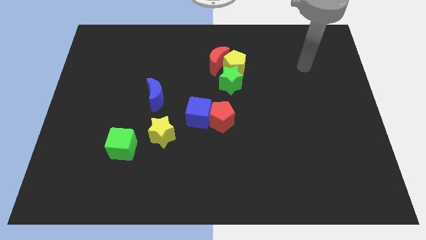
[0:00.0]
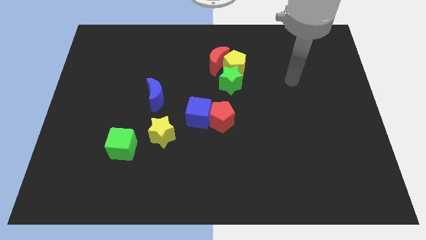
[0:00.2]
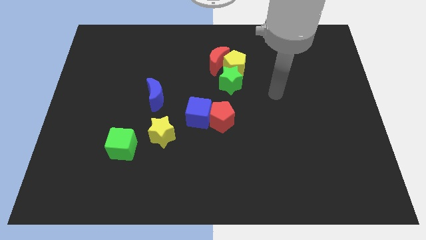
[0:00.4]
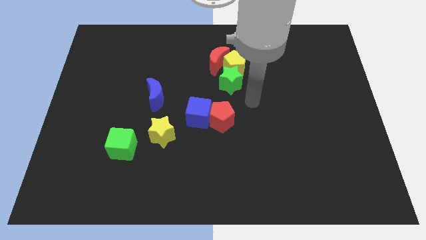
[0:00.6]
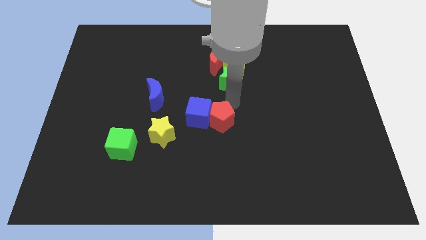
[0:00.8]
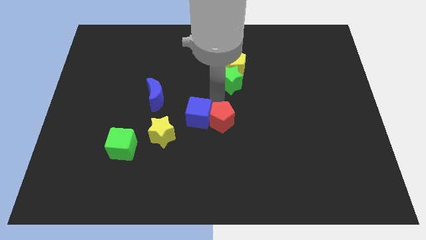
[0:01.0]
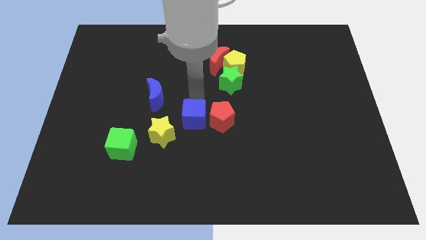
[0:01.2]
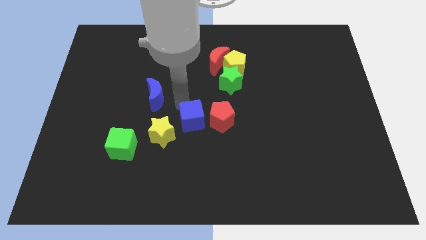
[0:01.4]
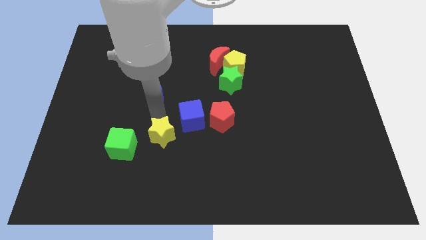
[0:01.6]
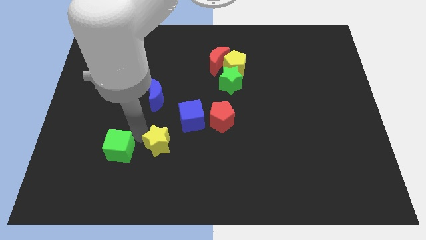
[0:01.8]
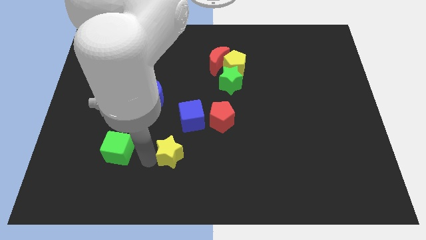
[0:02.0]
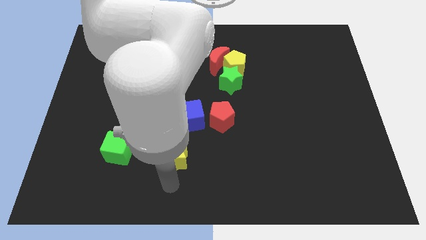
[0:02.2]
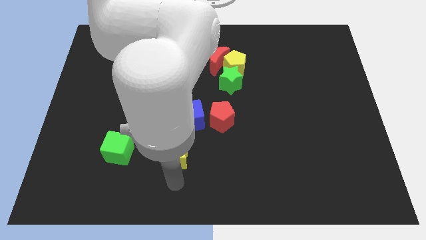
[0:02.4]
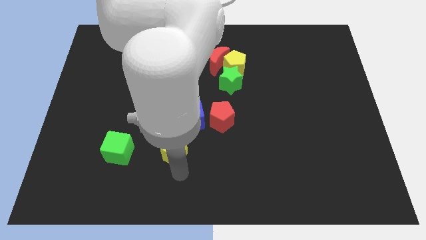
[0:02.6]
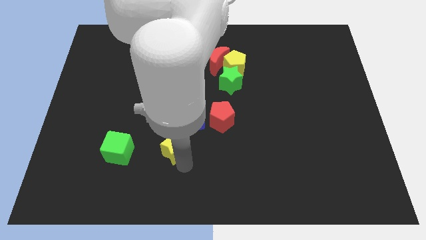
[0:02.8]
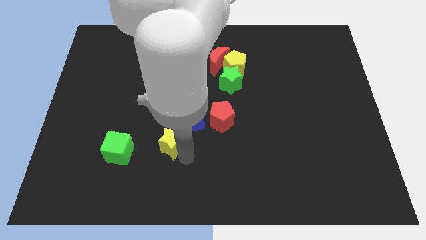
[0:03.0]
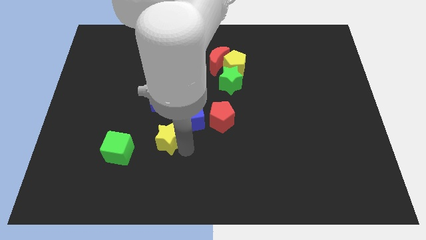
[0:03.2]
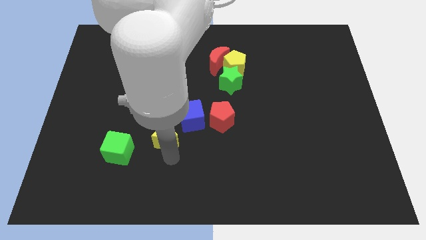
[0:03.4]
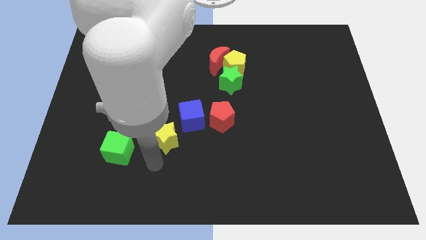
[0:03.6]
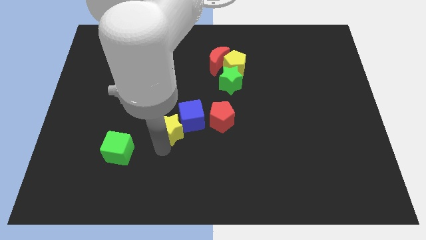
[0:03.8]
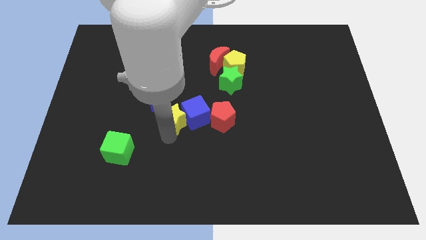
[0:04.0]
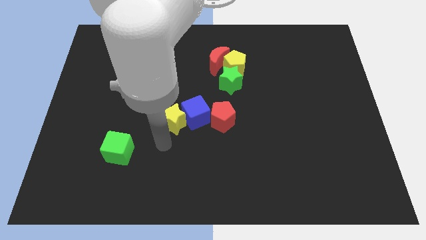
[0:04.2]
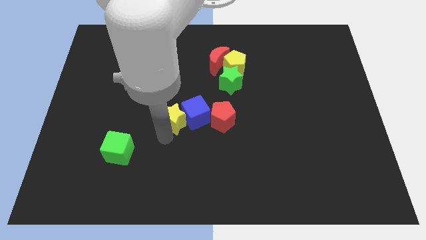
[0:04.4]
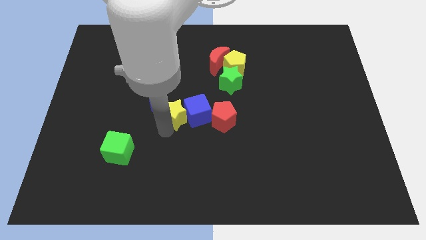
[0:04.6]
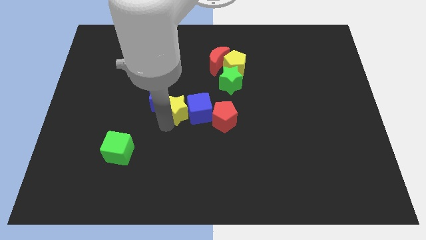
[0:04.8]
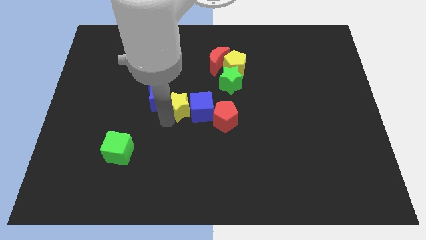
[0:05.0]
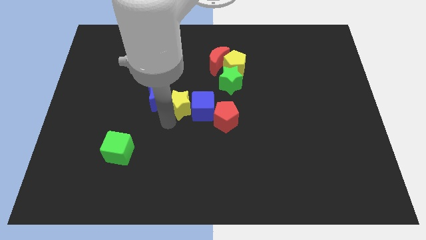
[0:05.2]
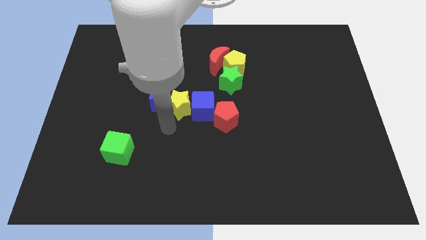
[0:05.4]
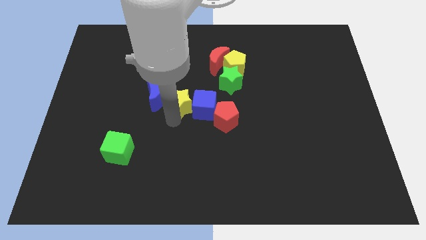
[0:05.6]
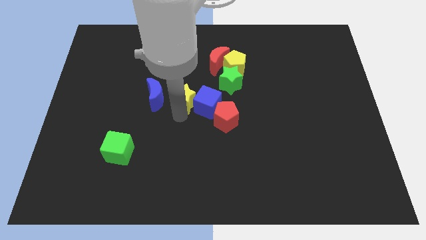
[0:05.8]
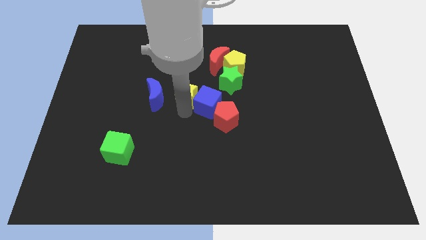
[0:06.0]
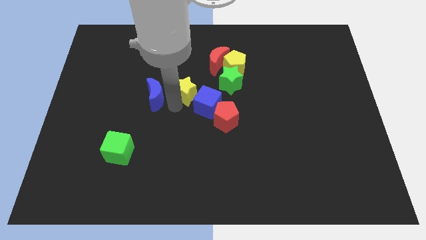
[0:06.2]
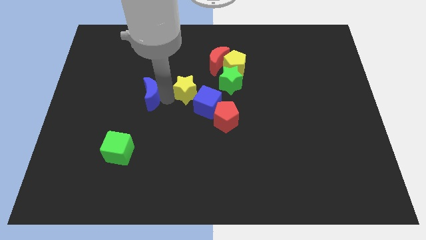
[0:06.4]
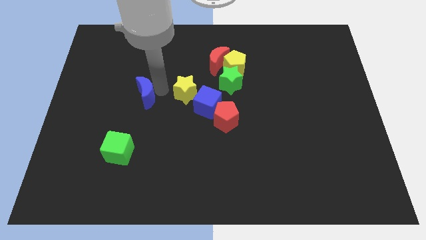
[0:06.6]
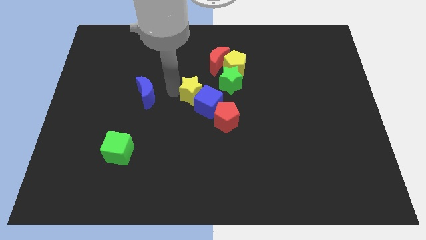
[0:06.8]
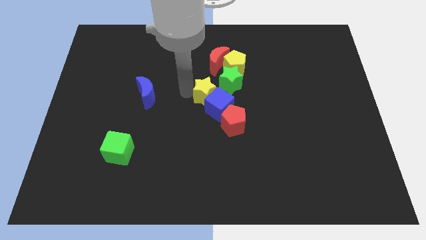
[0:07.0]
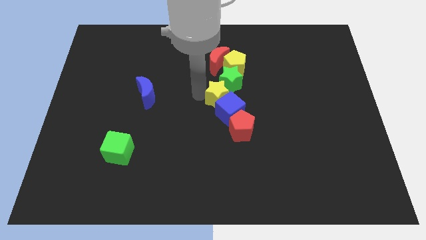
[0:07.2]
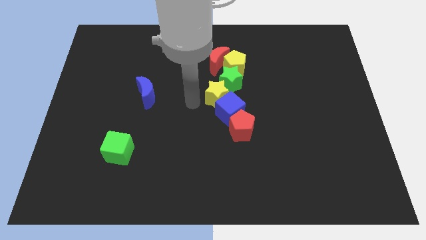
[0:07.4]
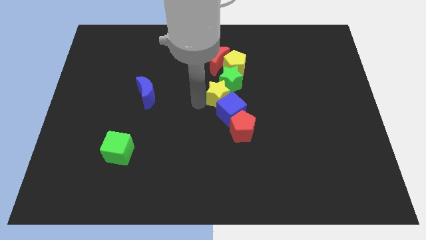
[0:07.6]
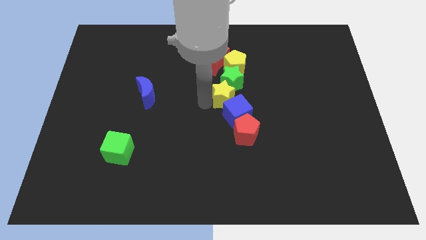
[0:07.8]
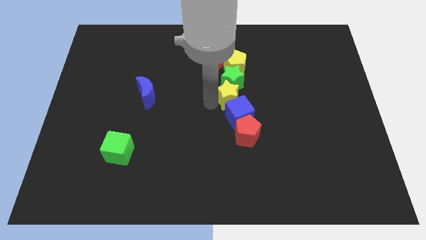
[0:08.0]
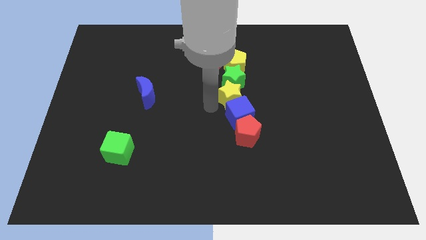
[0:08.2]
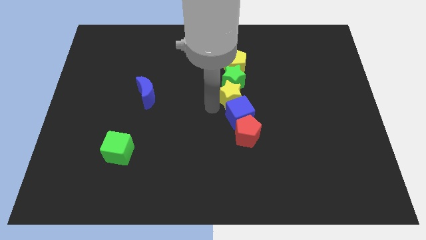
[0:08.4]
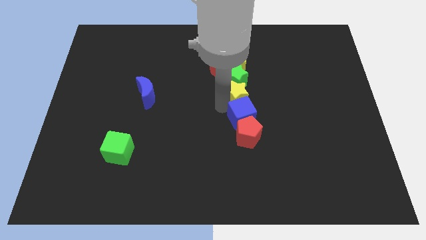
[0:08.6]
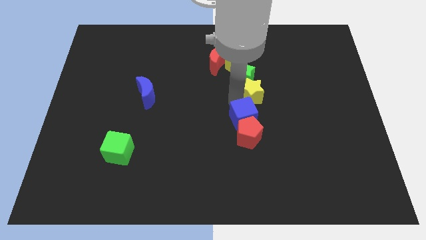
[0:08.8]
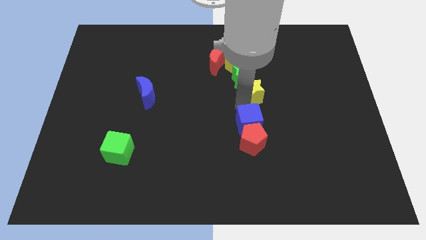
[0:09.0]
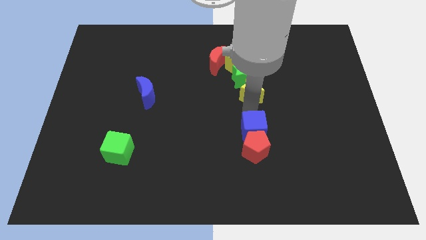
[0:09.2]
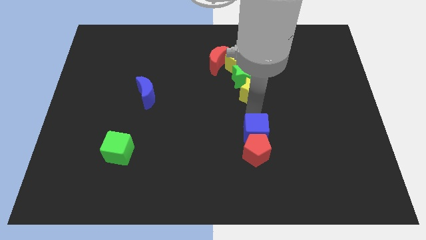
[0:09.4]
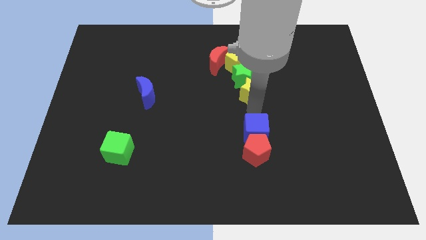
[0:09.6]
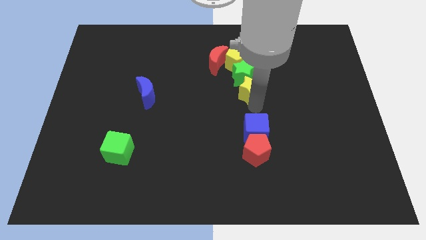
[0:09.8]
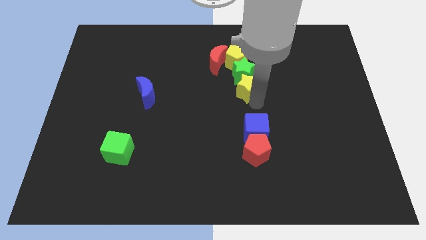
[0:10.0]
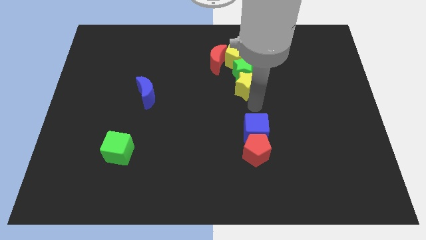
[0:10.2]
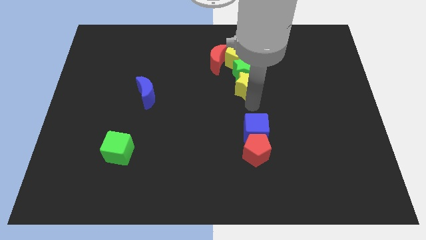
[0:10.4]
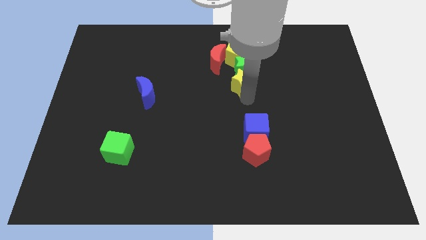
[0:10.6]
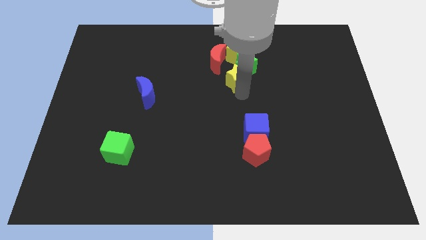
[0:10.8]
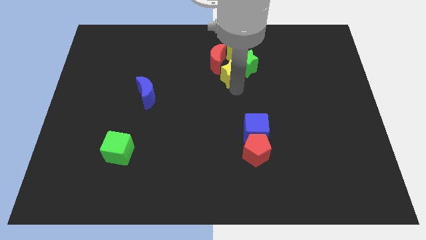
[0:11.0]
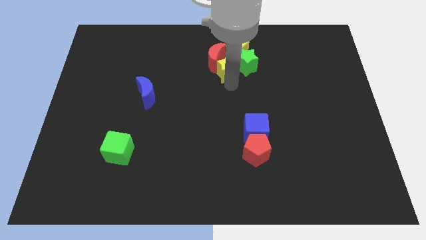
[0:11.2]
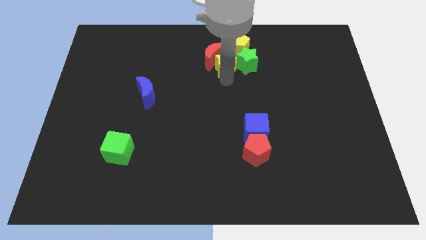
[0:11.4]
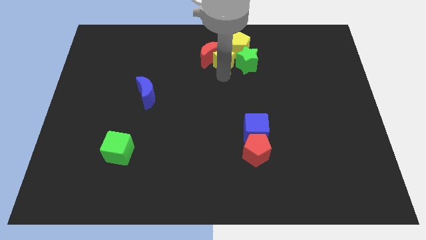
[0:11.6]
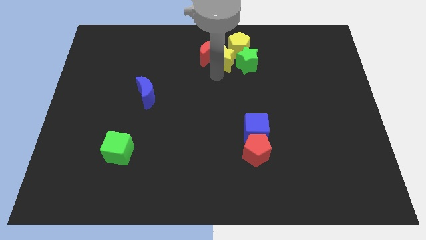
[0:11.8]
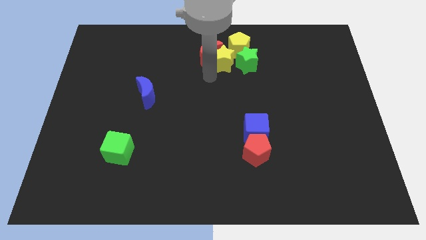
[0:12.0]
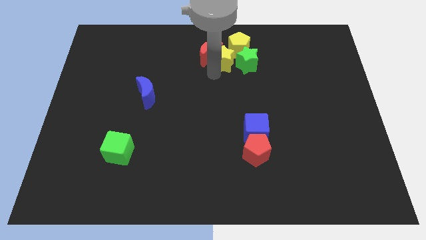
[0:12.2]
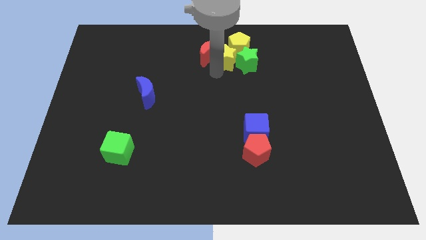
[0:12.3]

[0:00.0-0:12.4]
put the yellow star towards the yellow pentagon
